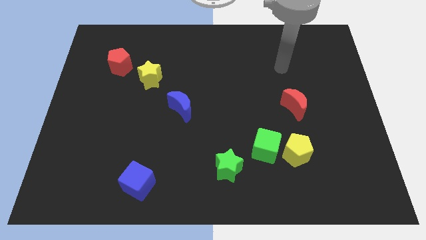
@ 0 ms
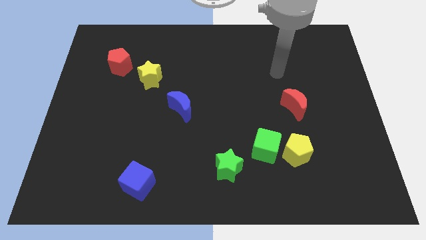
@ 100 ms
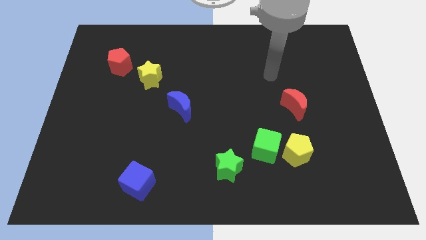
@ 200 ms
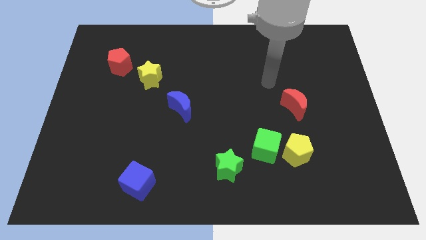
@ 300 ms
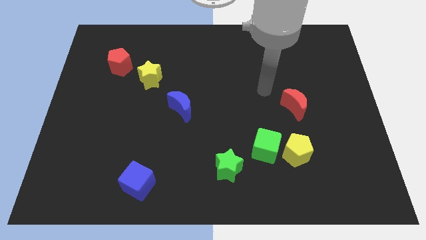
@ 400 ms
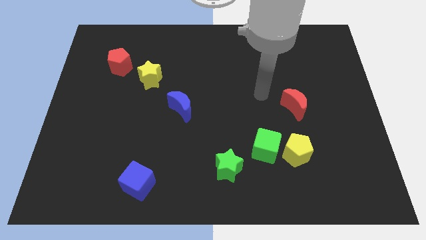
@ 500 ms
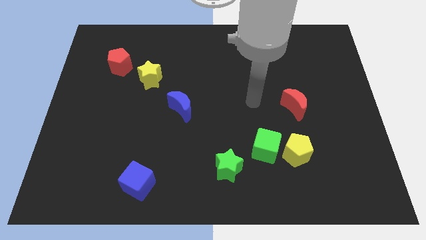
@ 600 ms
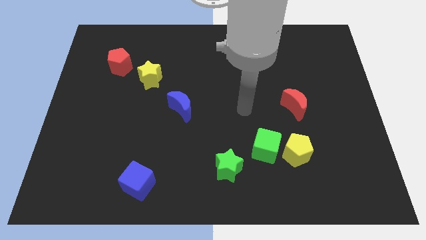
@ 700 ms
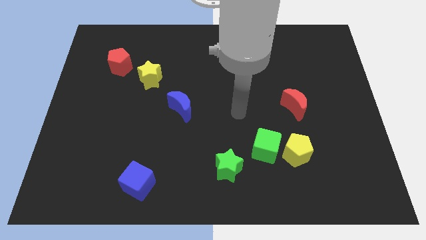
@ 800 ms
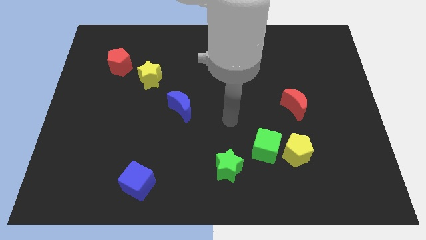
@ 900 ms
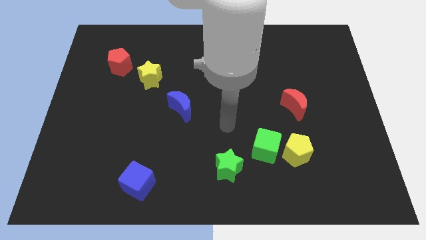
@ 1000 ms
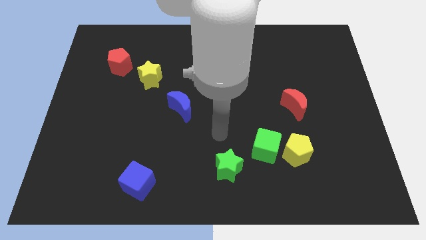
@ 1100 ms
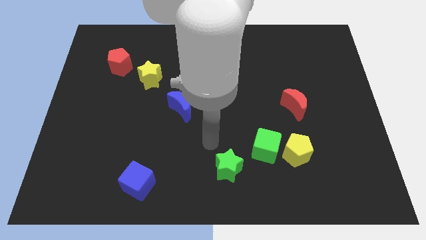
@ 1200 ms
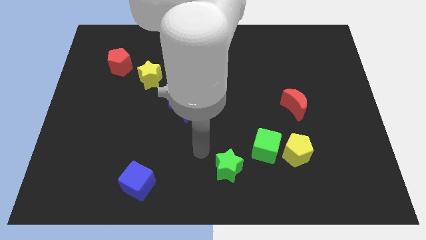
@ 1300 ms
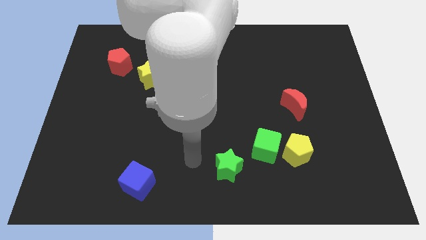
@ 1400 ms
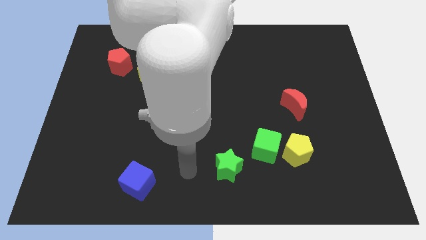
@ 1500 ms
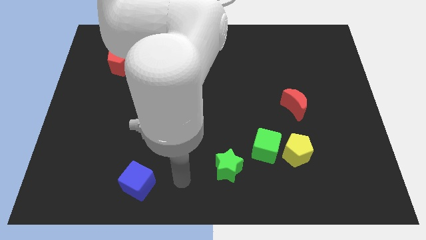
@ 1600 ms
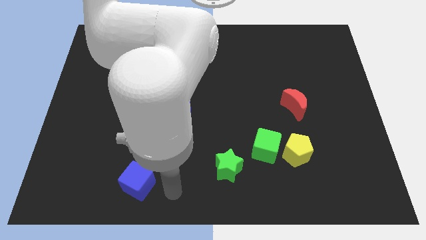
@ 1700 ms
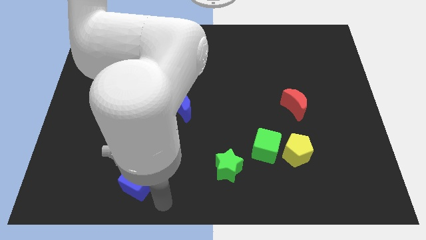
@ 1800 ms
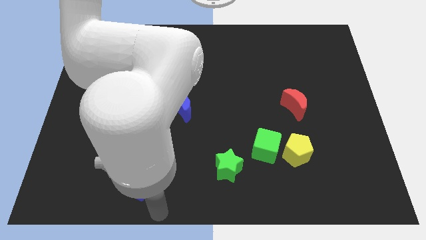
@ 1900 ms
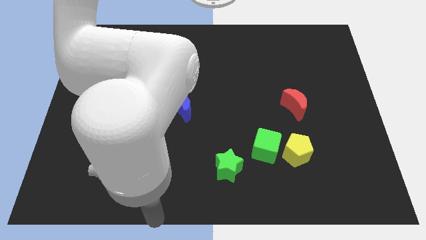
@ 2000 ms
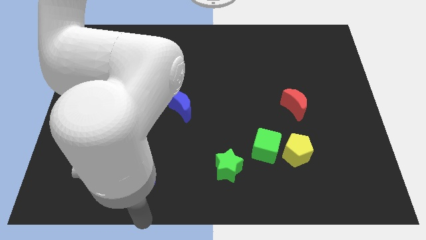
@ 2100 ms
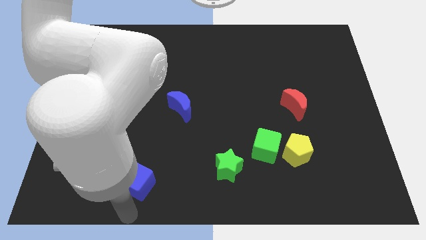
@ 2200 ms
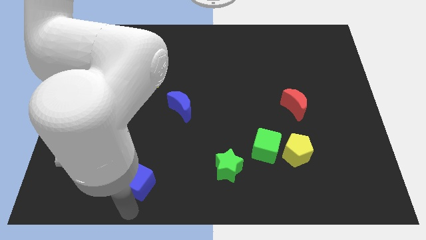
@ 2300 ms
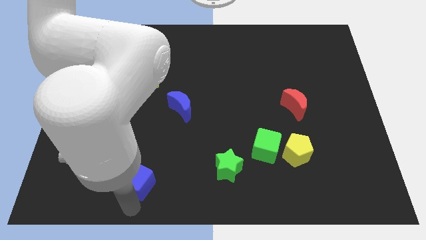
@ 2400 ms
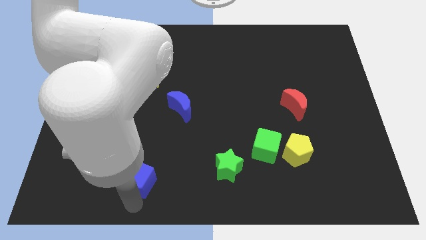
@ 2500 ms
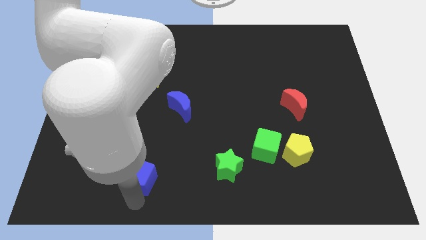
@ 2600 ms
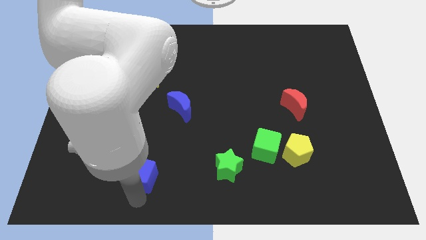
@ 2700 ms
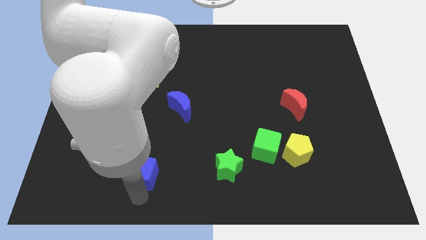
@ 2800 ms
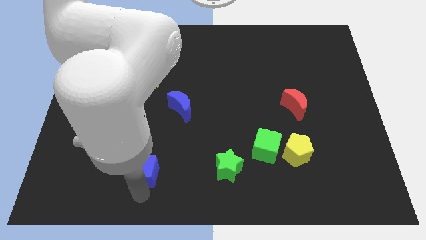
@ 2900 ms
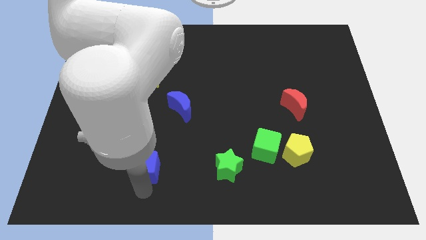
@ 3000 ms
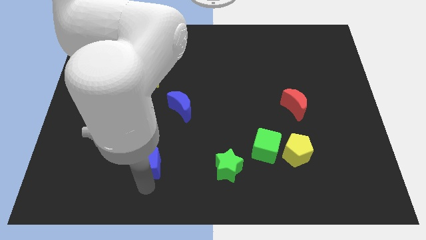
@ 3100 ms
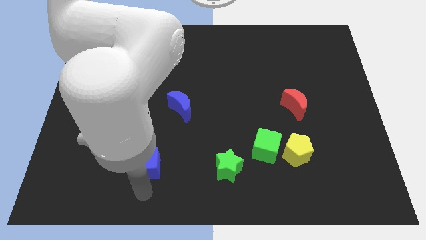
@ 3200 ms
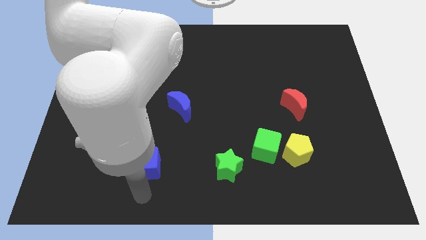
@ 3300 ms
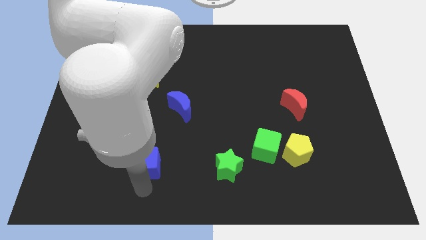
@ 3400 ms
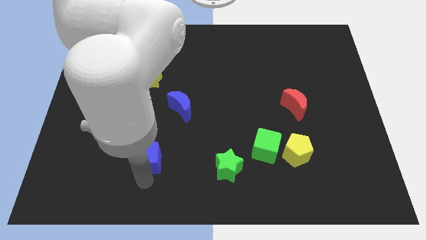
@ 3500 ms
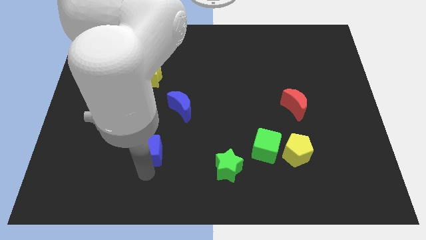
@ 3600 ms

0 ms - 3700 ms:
move the blue cube up a bit

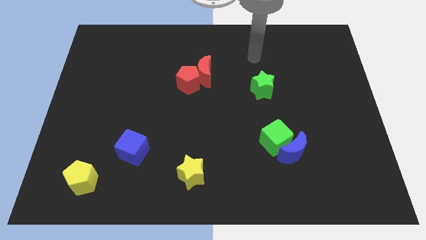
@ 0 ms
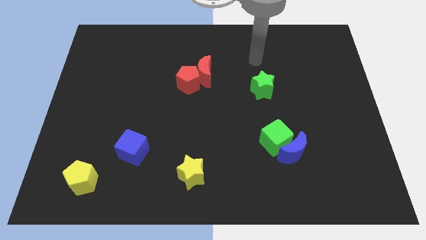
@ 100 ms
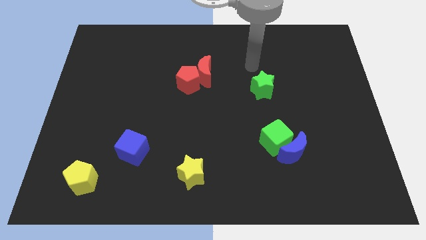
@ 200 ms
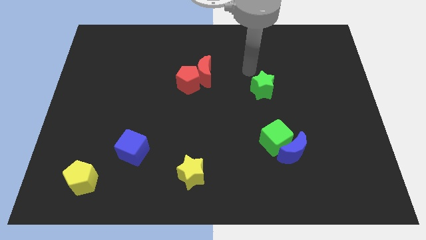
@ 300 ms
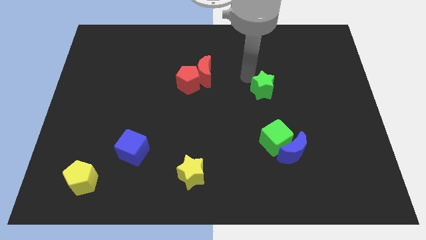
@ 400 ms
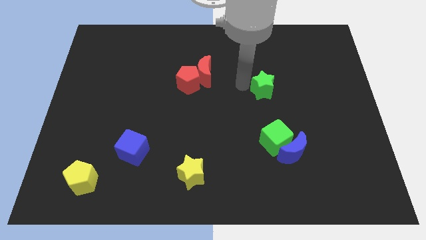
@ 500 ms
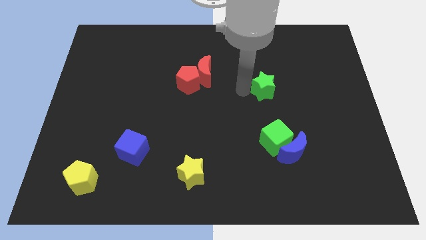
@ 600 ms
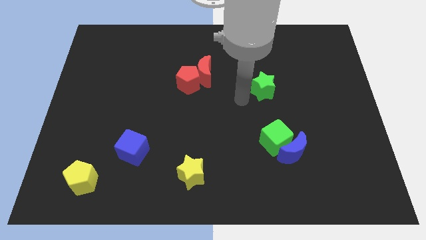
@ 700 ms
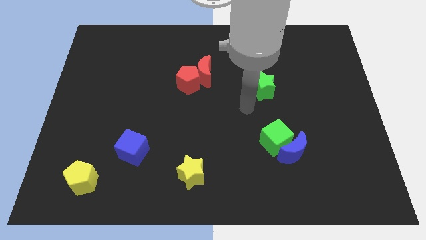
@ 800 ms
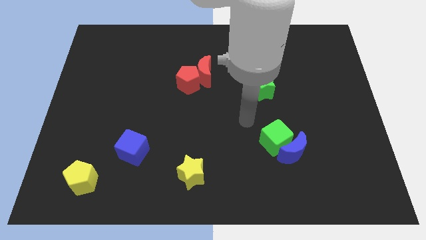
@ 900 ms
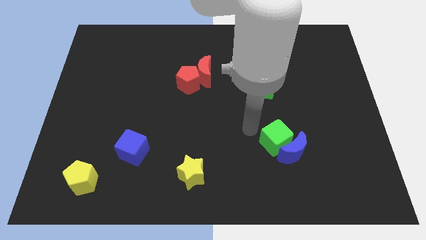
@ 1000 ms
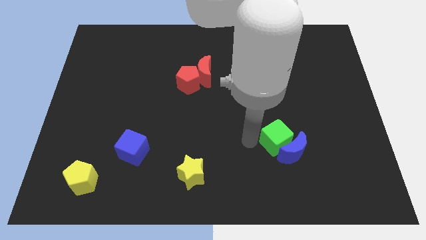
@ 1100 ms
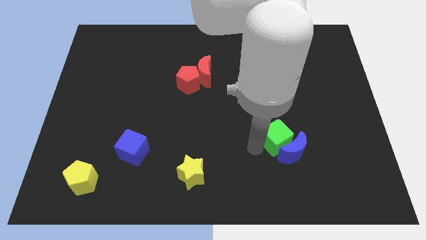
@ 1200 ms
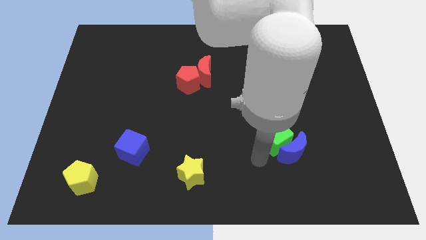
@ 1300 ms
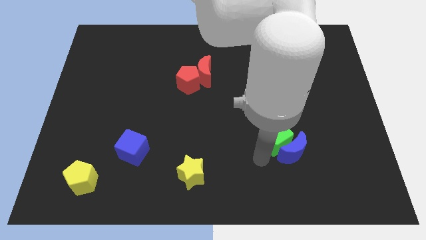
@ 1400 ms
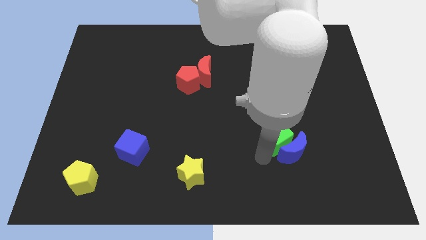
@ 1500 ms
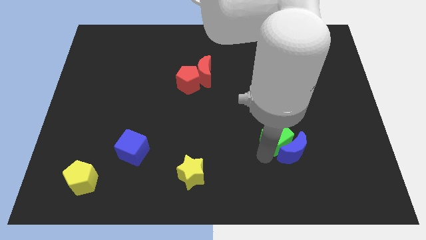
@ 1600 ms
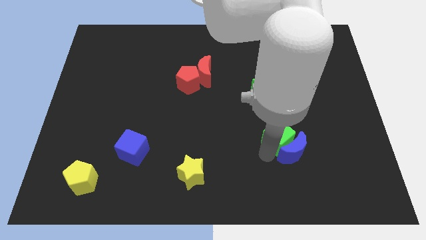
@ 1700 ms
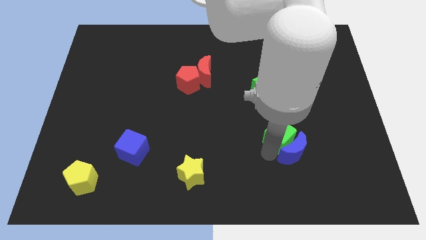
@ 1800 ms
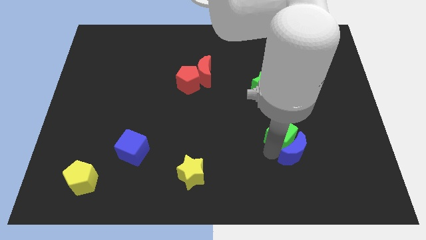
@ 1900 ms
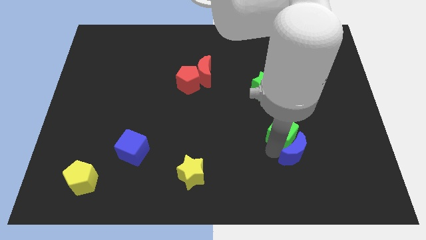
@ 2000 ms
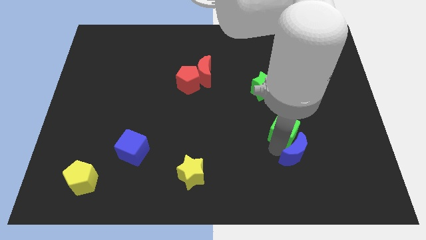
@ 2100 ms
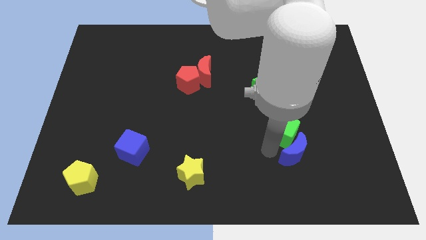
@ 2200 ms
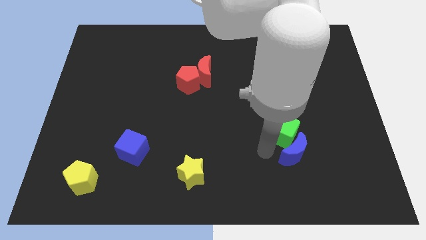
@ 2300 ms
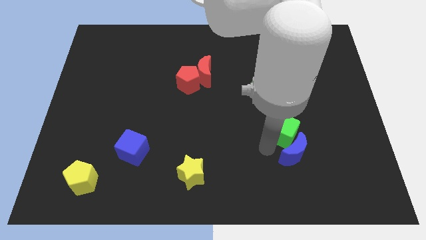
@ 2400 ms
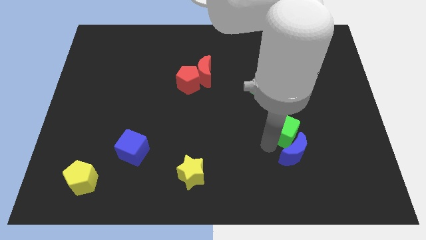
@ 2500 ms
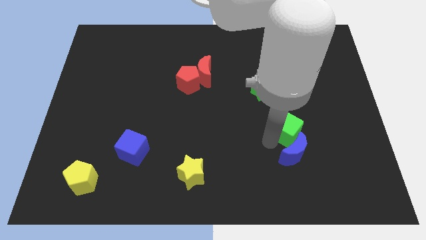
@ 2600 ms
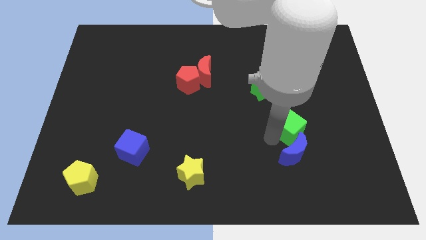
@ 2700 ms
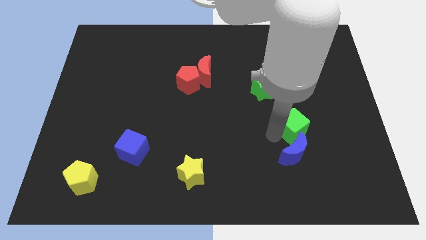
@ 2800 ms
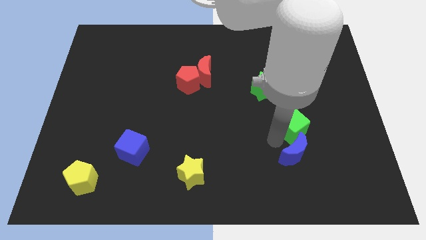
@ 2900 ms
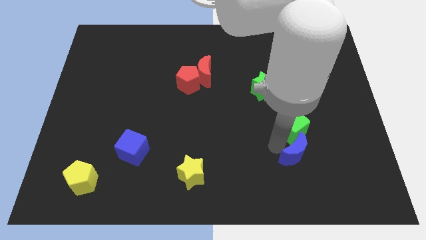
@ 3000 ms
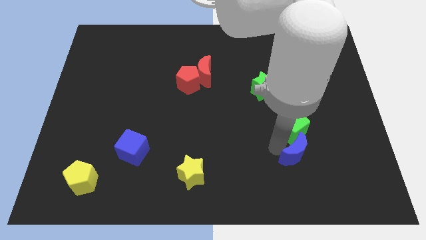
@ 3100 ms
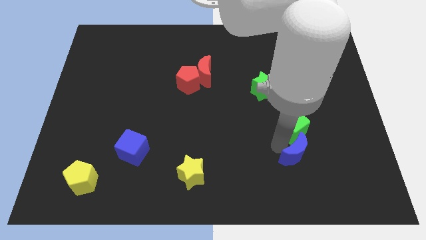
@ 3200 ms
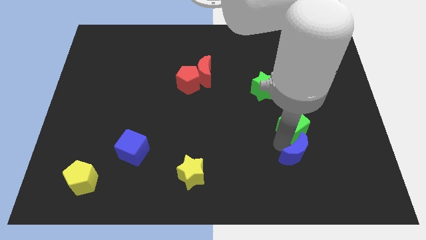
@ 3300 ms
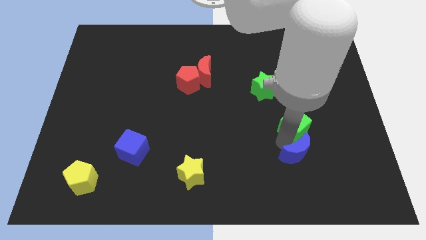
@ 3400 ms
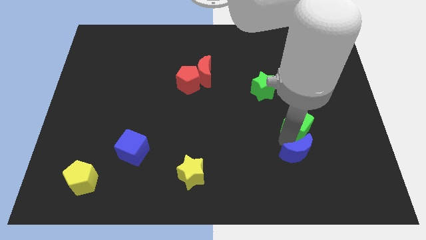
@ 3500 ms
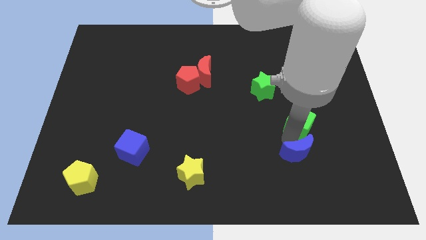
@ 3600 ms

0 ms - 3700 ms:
slide the green cube a little bit up and then to the right

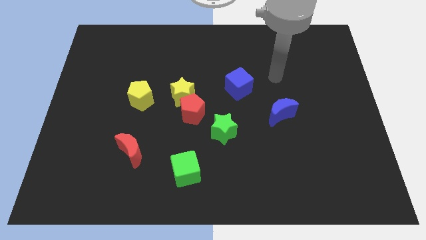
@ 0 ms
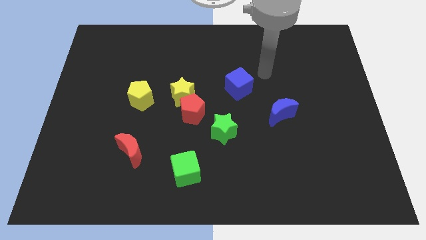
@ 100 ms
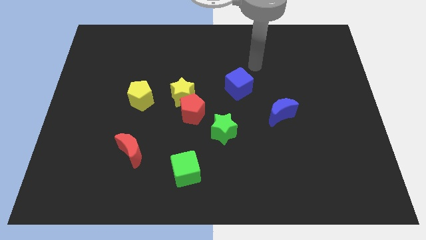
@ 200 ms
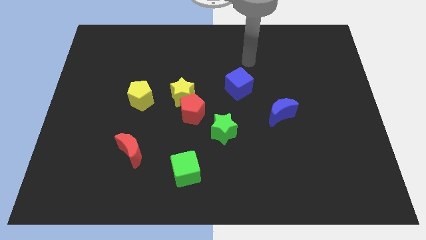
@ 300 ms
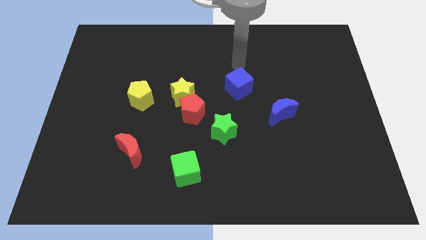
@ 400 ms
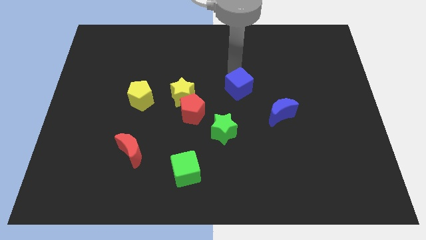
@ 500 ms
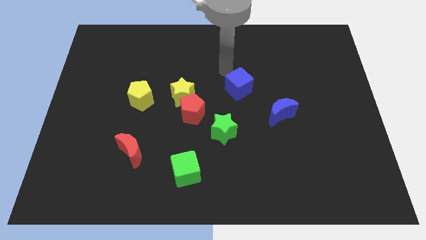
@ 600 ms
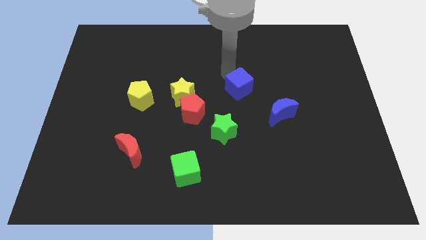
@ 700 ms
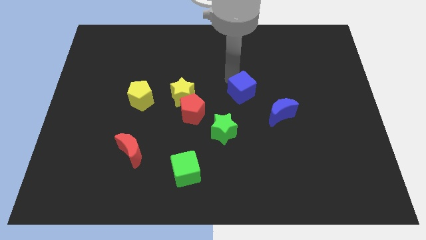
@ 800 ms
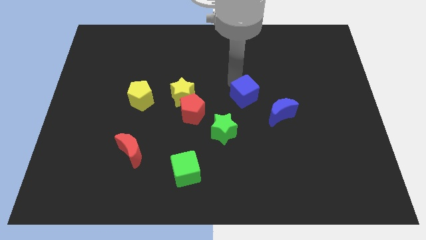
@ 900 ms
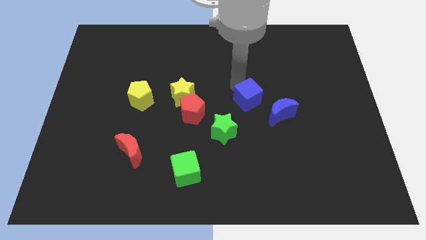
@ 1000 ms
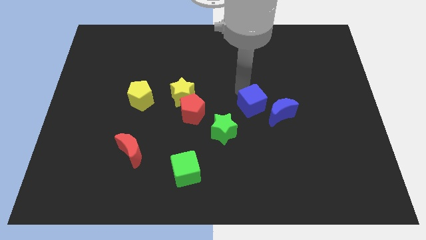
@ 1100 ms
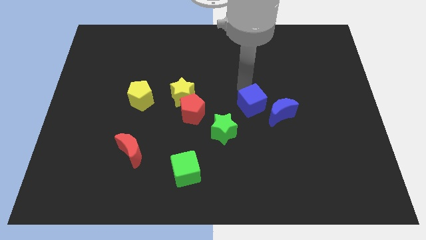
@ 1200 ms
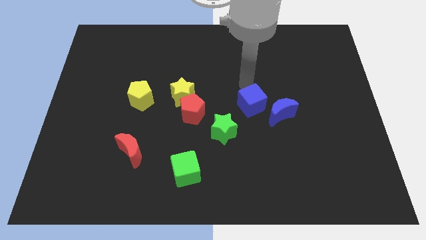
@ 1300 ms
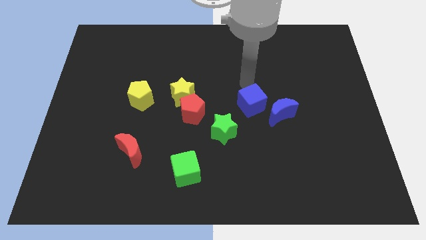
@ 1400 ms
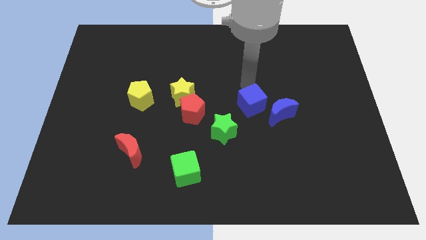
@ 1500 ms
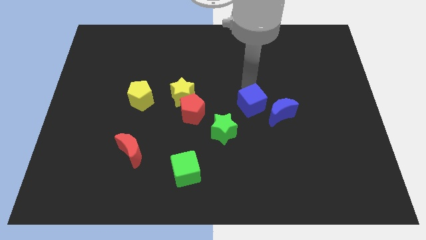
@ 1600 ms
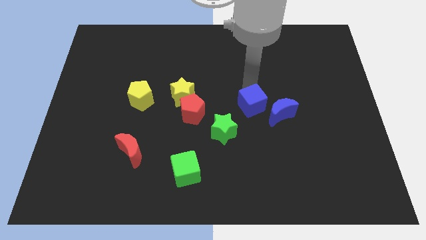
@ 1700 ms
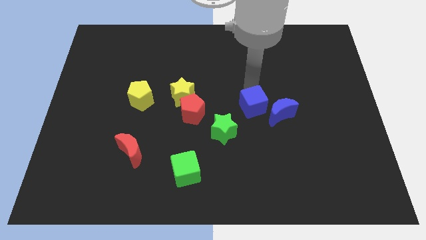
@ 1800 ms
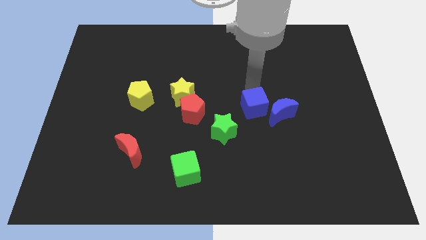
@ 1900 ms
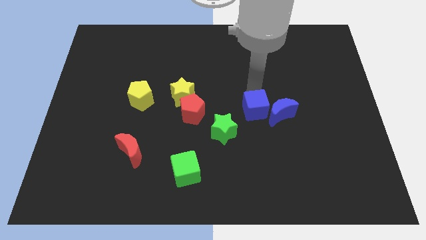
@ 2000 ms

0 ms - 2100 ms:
slightly push the blue cube down and right
